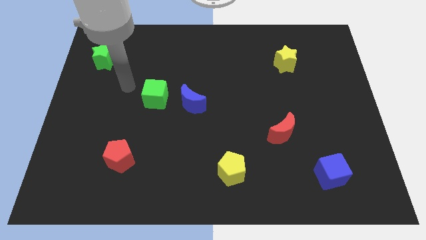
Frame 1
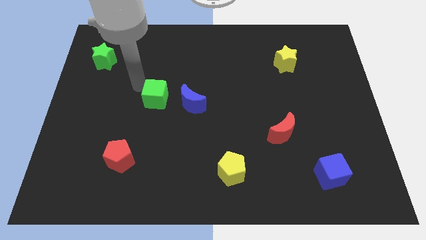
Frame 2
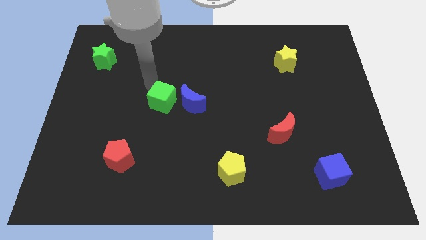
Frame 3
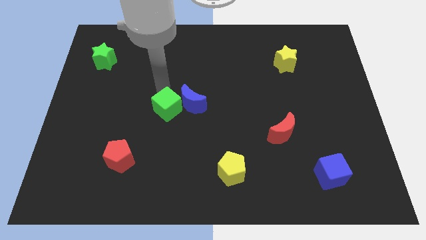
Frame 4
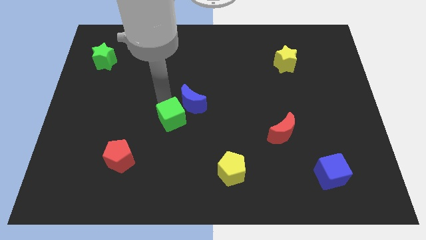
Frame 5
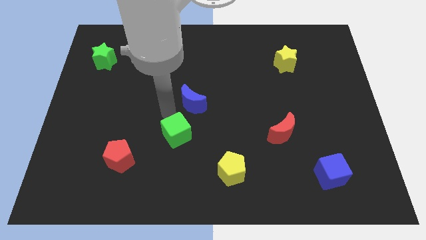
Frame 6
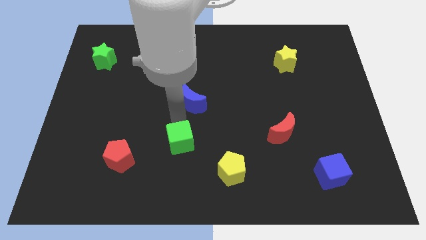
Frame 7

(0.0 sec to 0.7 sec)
move the blue moon away from the green cube

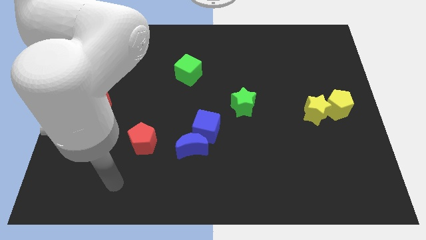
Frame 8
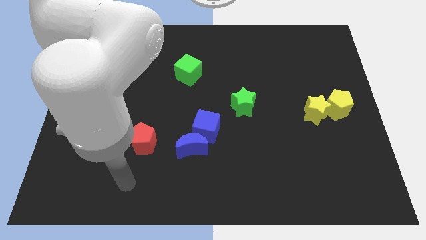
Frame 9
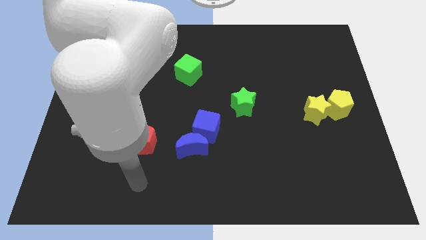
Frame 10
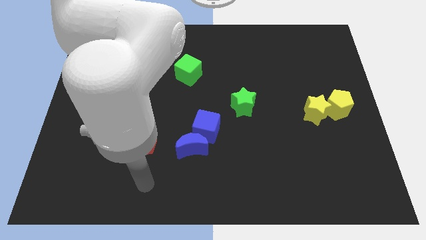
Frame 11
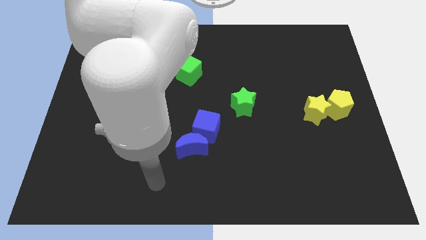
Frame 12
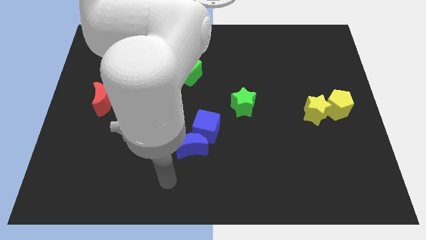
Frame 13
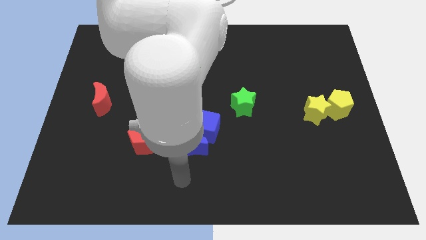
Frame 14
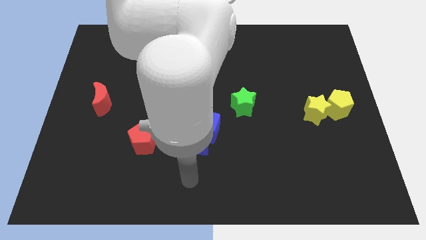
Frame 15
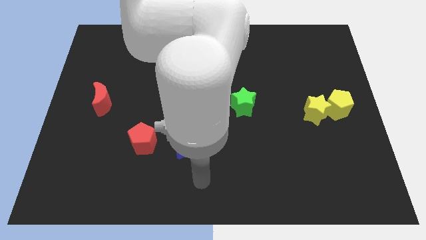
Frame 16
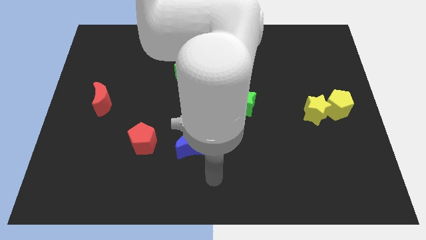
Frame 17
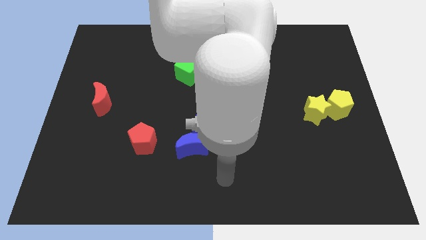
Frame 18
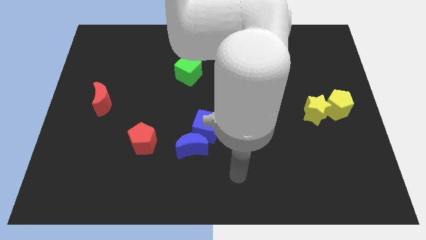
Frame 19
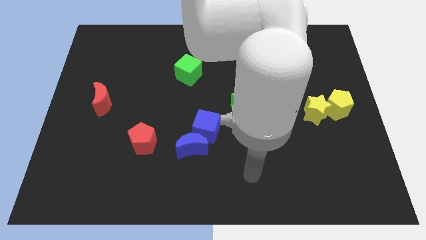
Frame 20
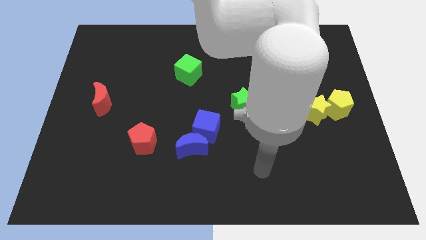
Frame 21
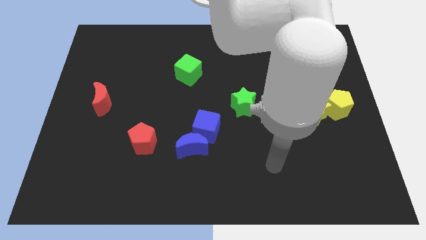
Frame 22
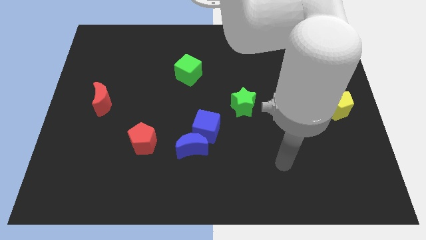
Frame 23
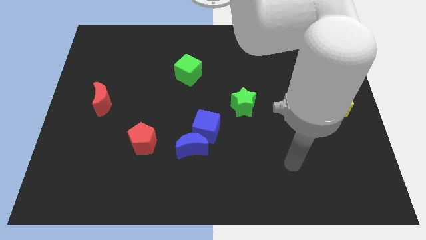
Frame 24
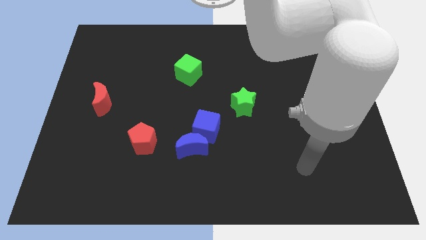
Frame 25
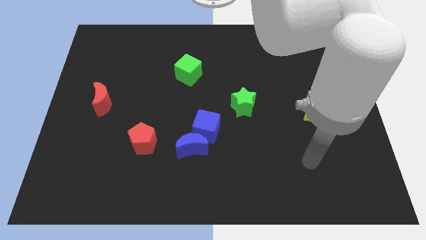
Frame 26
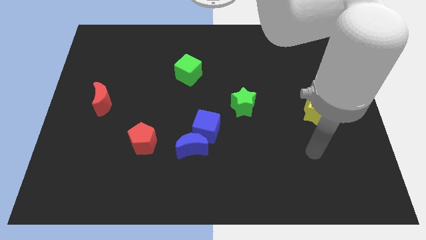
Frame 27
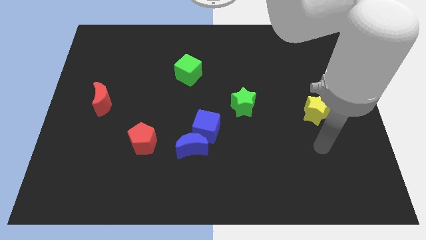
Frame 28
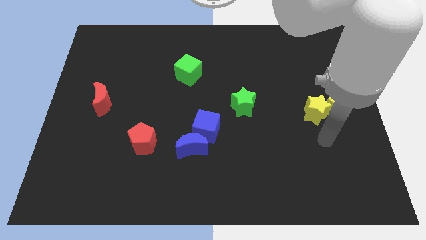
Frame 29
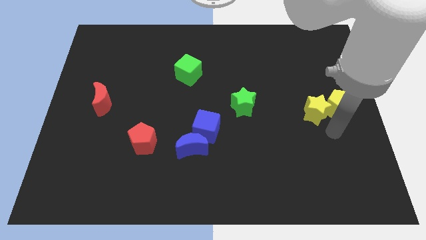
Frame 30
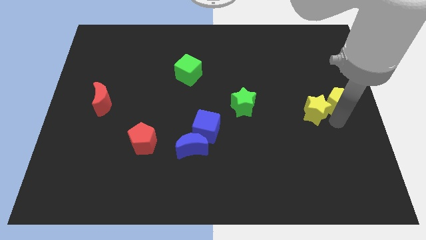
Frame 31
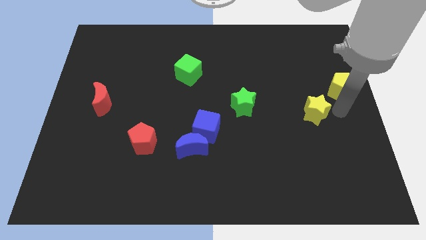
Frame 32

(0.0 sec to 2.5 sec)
separate the yellow star from the yellow pentagon

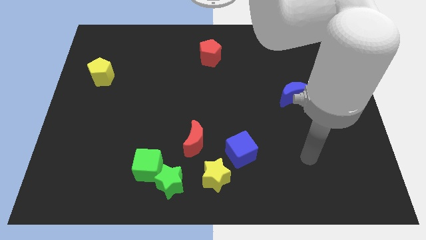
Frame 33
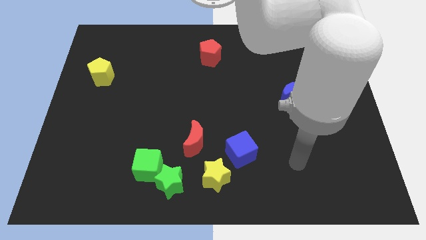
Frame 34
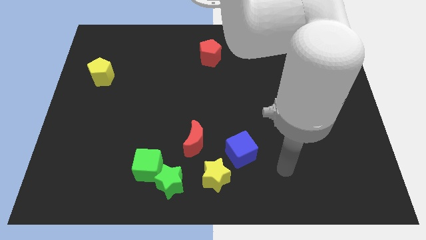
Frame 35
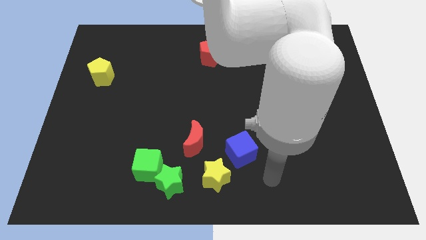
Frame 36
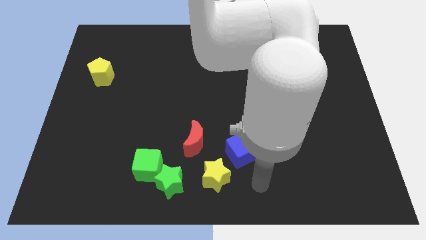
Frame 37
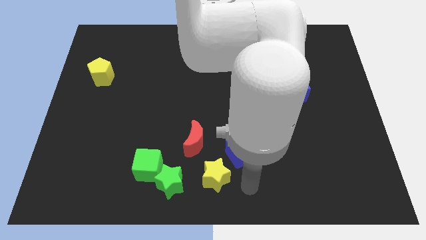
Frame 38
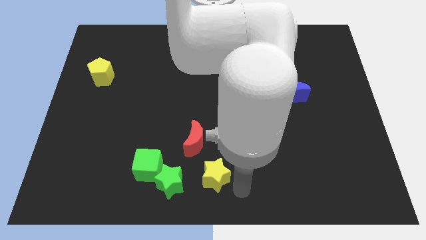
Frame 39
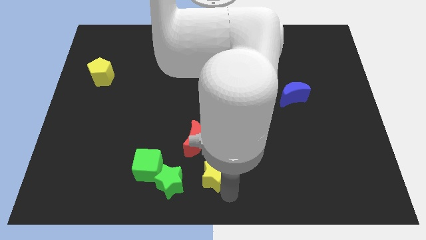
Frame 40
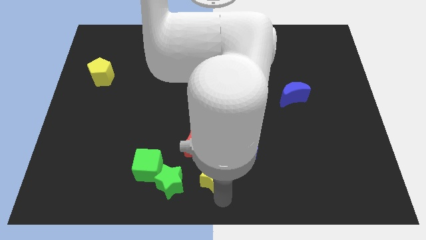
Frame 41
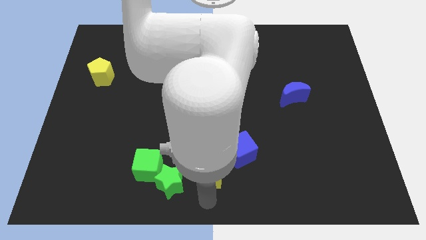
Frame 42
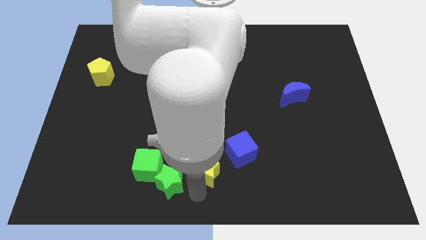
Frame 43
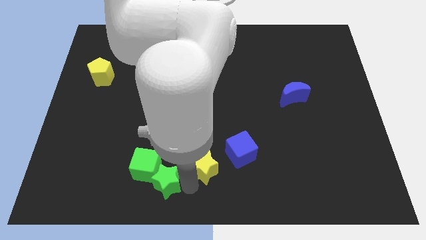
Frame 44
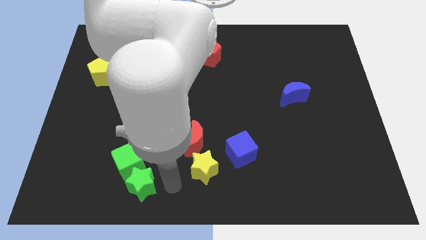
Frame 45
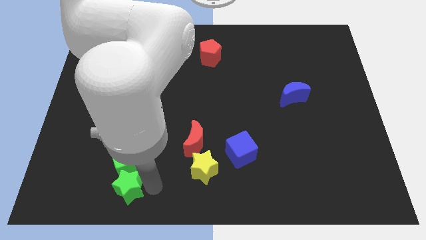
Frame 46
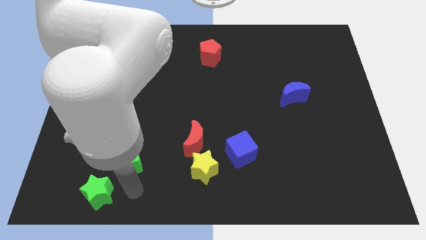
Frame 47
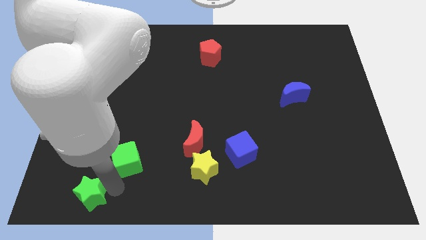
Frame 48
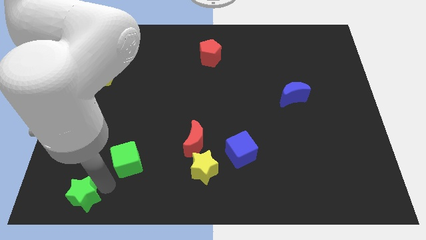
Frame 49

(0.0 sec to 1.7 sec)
separate the green cube from the green star

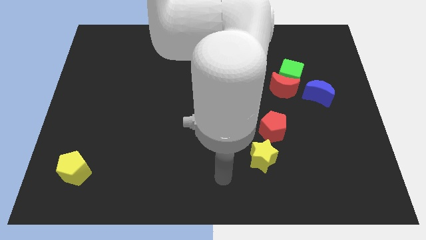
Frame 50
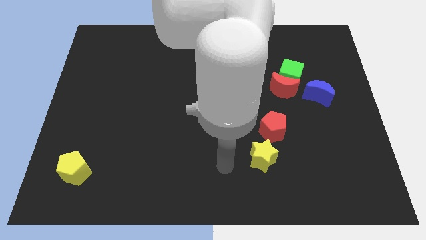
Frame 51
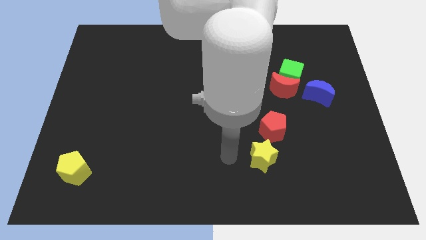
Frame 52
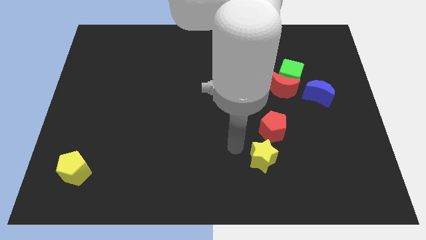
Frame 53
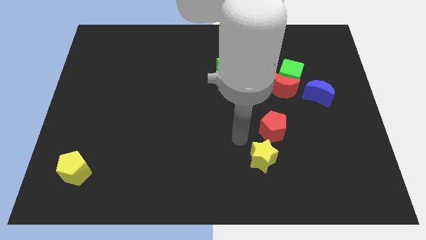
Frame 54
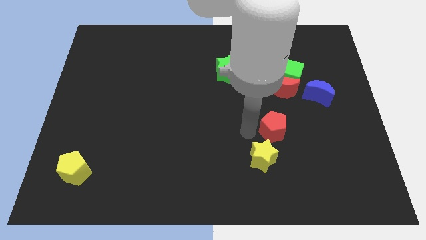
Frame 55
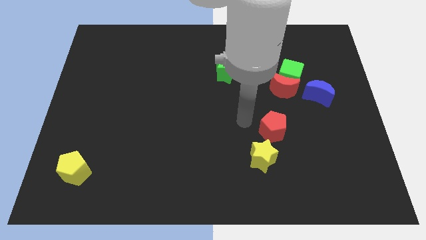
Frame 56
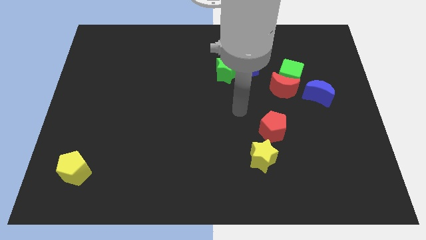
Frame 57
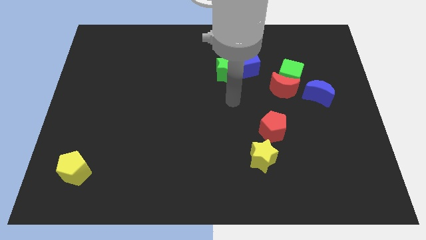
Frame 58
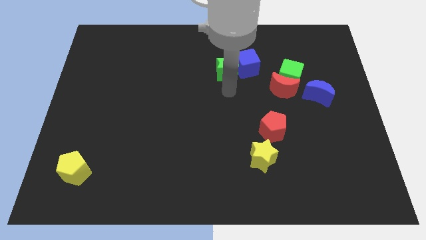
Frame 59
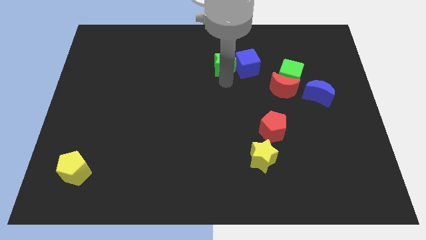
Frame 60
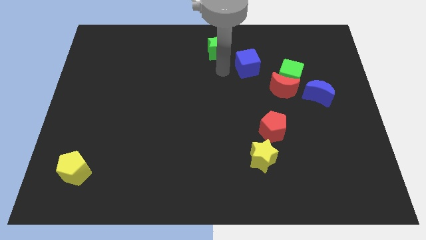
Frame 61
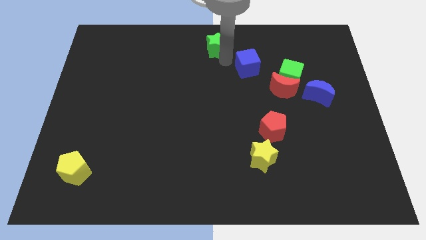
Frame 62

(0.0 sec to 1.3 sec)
pull the blue cube apart from the green star

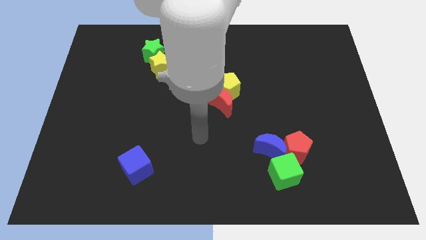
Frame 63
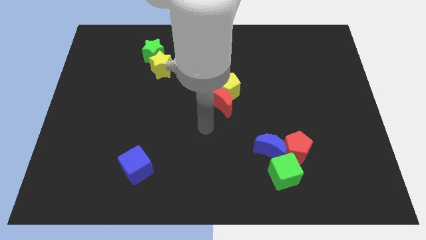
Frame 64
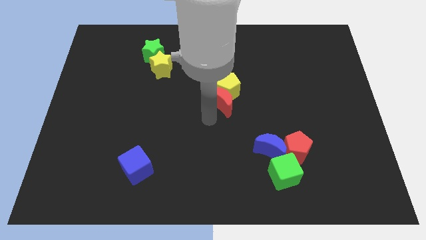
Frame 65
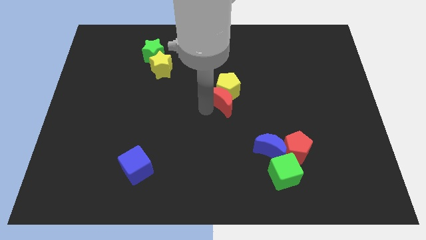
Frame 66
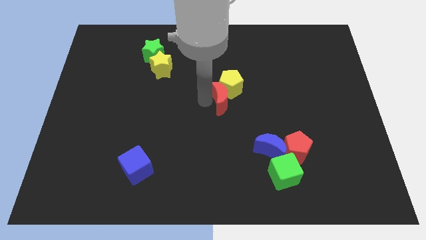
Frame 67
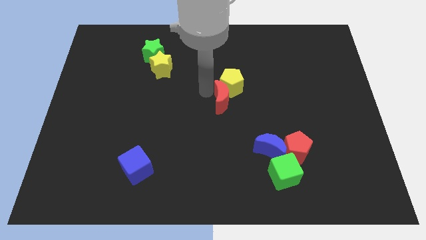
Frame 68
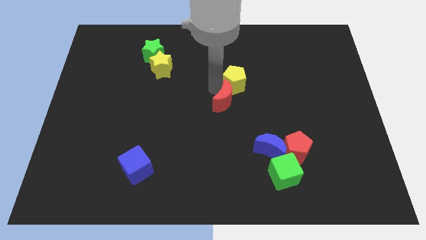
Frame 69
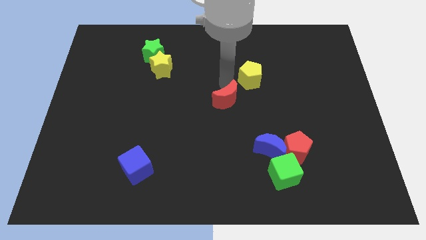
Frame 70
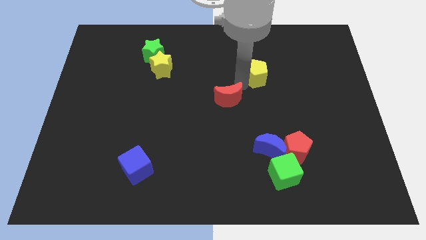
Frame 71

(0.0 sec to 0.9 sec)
move the red moon away from the yellow pentagon

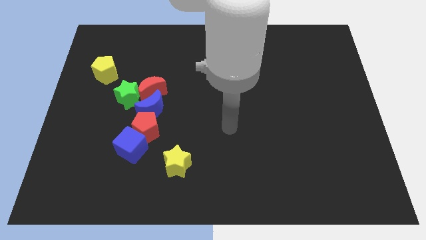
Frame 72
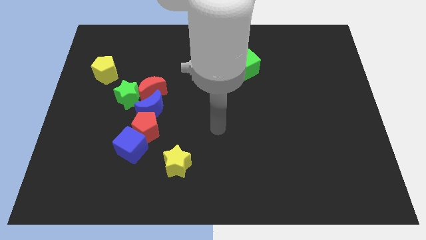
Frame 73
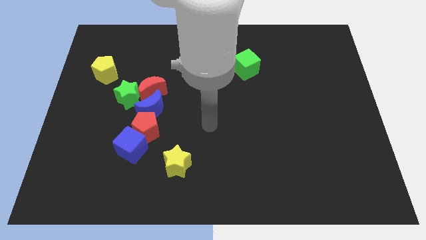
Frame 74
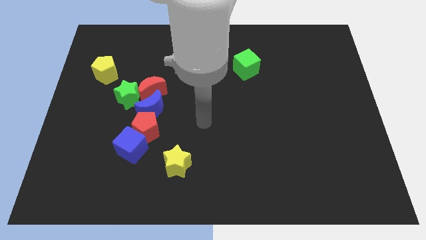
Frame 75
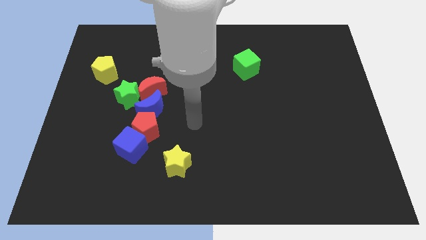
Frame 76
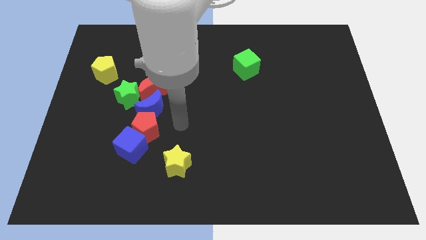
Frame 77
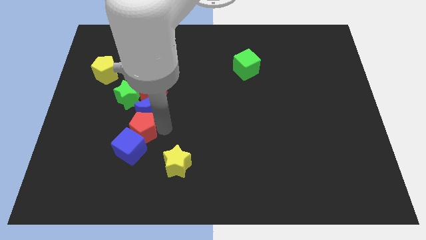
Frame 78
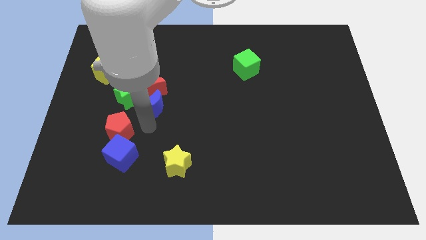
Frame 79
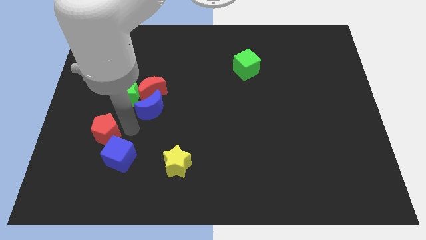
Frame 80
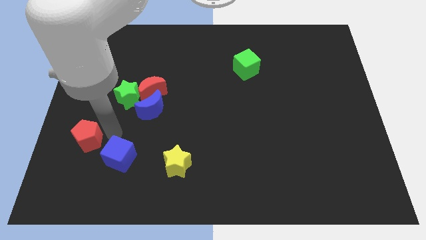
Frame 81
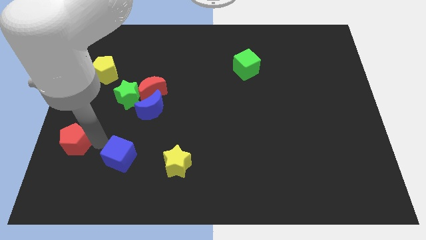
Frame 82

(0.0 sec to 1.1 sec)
separate the blue cube from the red pentagon

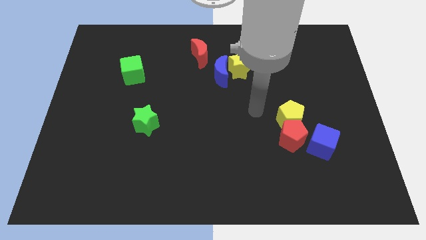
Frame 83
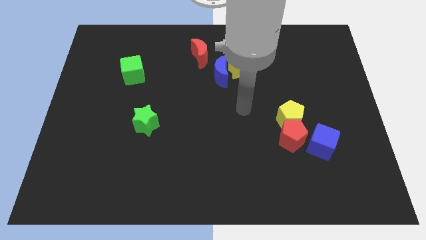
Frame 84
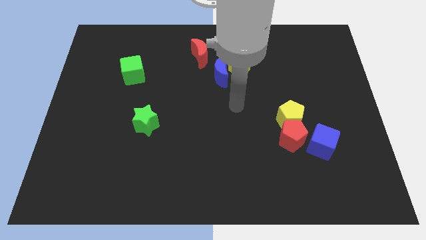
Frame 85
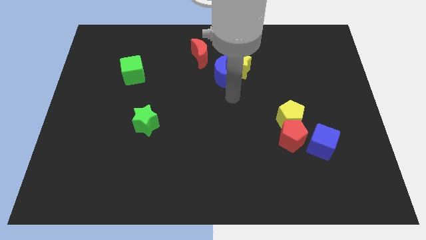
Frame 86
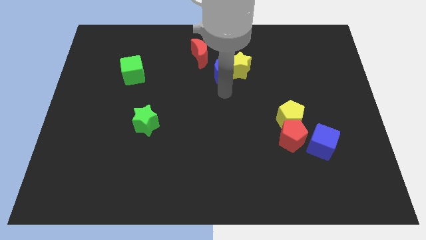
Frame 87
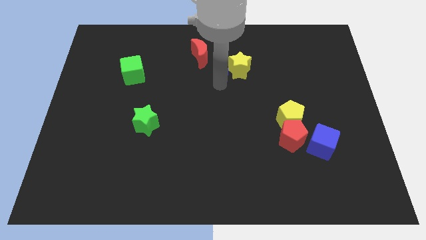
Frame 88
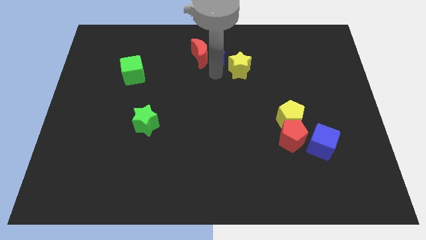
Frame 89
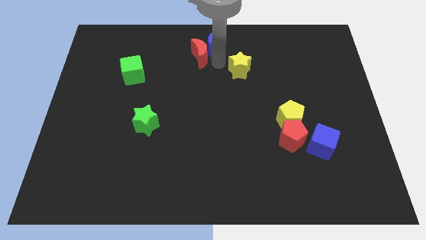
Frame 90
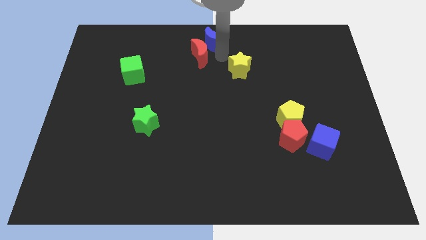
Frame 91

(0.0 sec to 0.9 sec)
pull the yellow star apart from the blue moon

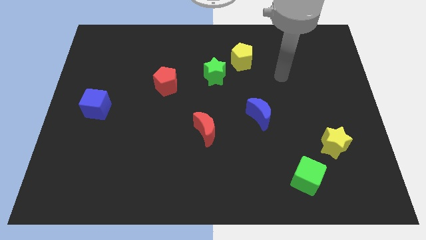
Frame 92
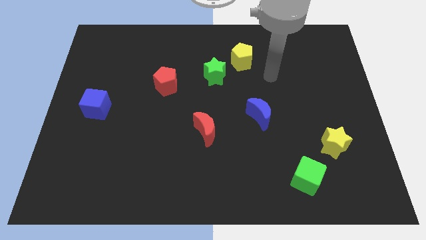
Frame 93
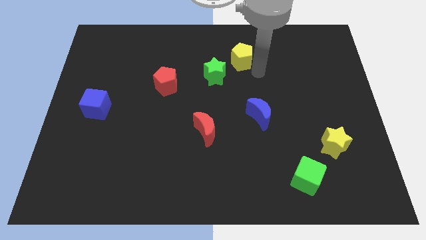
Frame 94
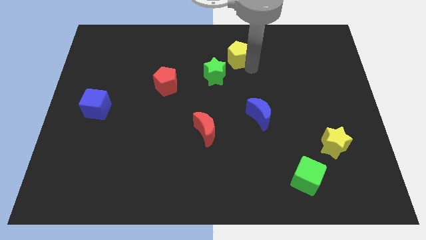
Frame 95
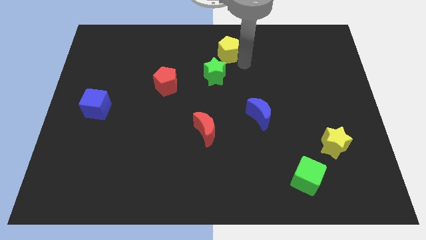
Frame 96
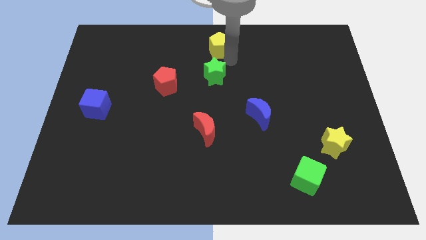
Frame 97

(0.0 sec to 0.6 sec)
pull the green star apart from the yellow pentagon
